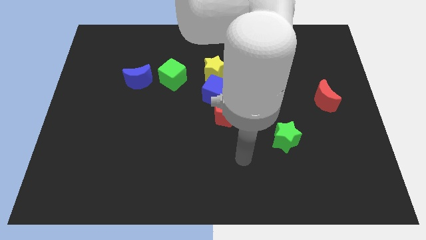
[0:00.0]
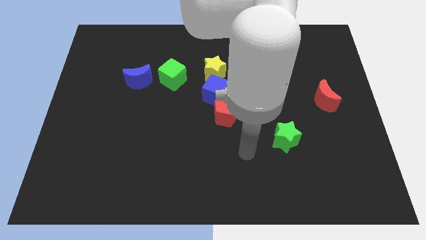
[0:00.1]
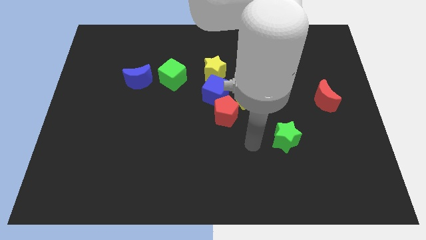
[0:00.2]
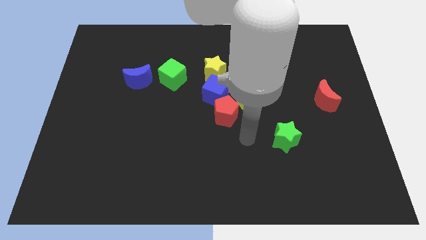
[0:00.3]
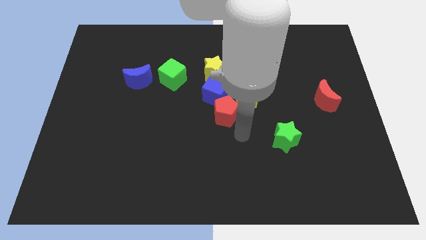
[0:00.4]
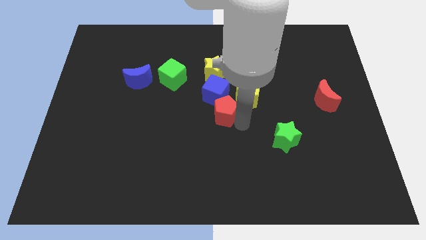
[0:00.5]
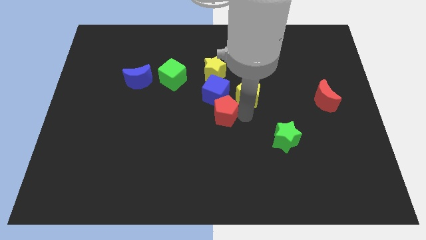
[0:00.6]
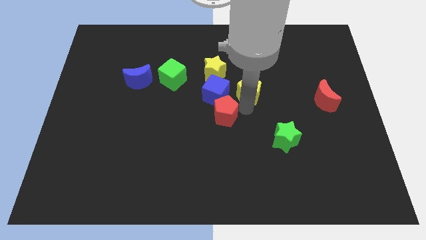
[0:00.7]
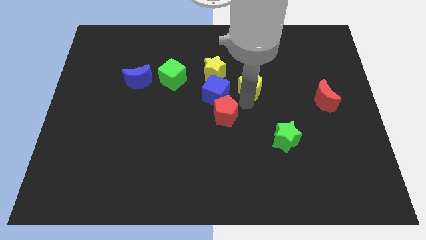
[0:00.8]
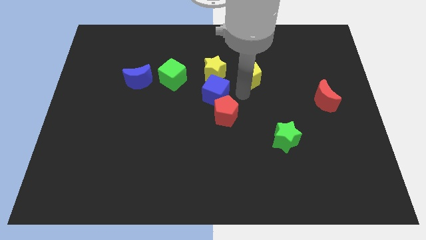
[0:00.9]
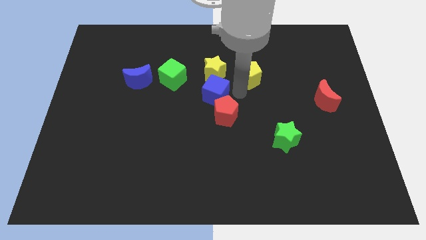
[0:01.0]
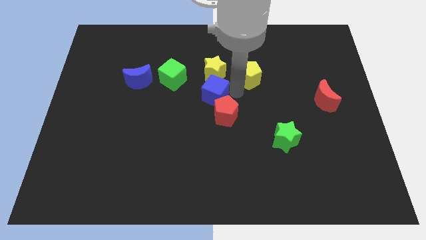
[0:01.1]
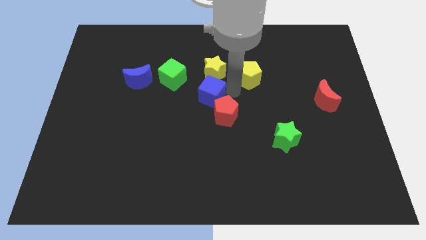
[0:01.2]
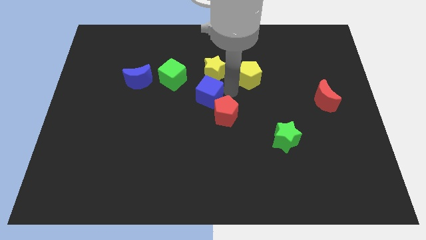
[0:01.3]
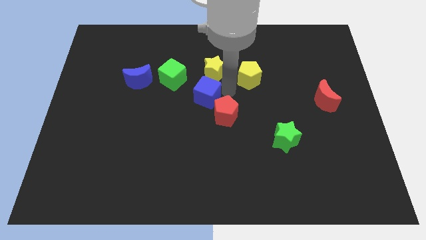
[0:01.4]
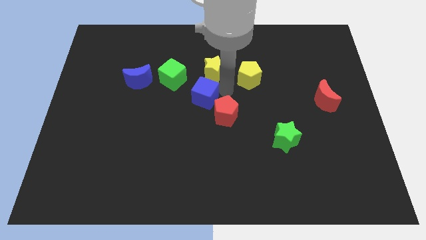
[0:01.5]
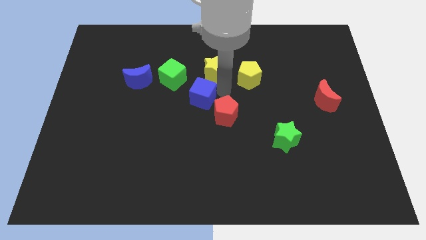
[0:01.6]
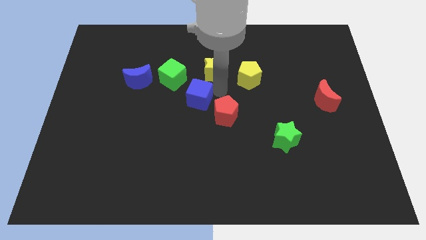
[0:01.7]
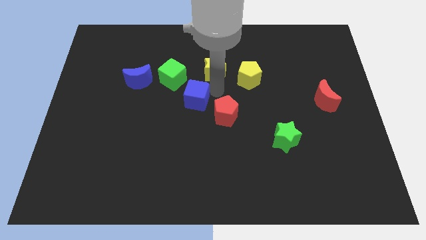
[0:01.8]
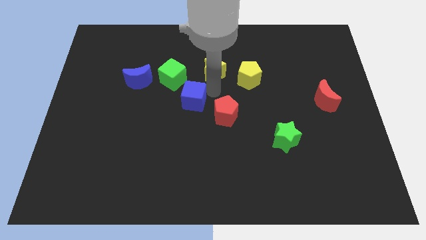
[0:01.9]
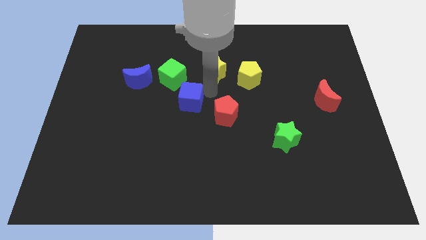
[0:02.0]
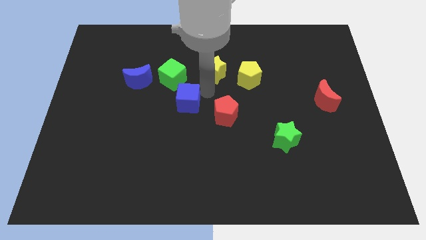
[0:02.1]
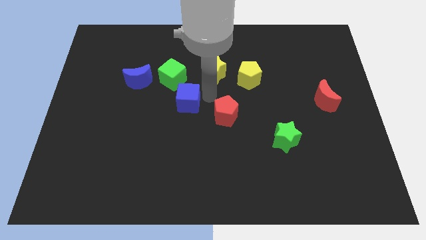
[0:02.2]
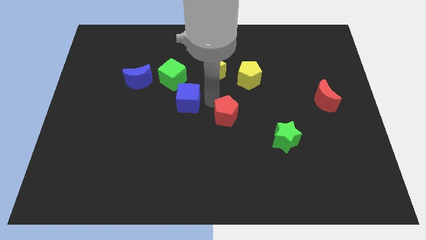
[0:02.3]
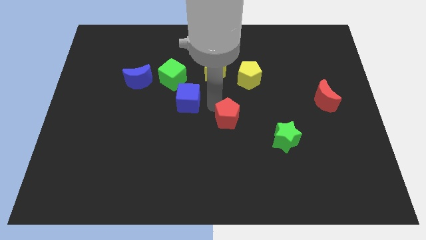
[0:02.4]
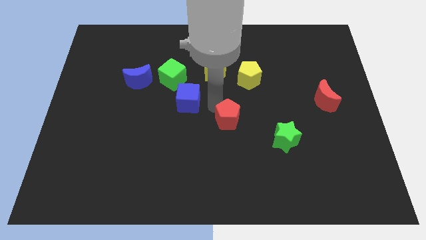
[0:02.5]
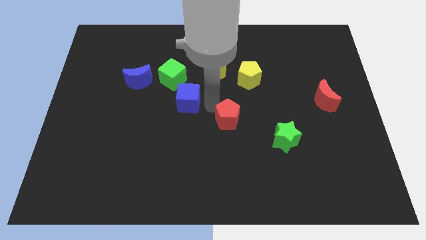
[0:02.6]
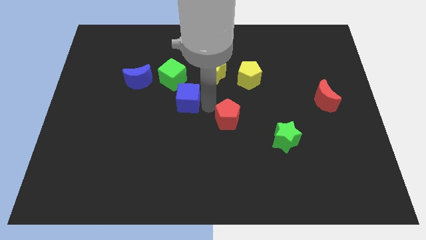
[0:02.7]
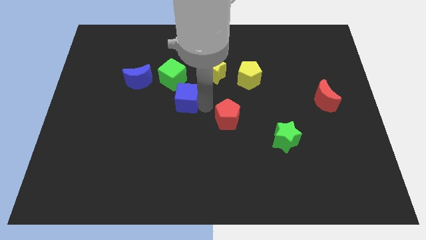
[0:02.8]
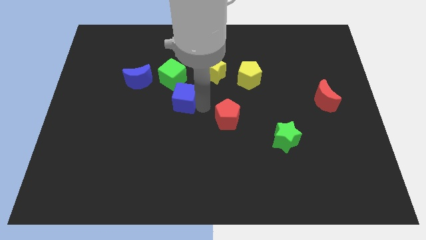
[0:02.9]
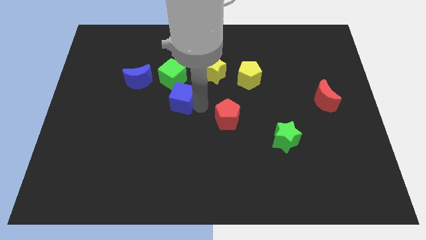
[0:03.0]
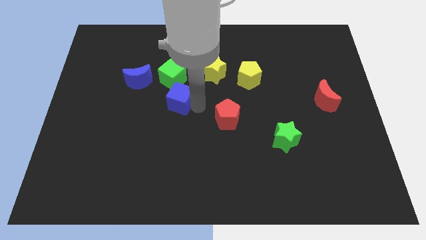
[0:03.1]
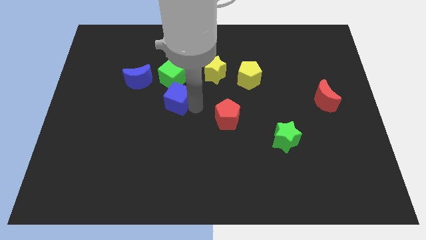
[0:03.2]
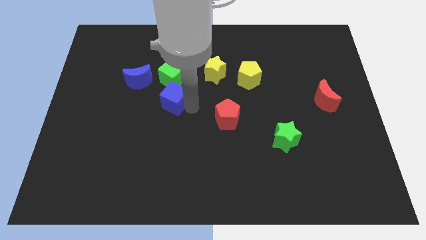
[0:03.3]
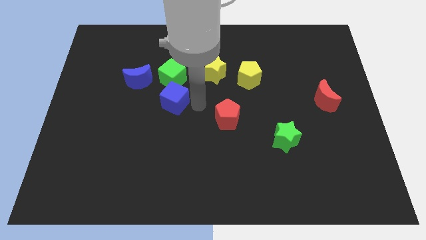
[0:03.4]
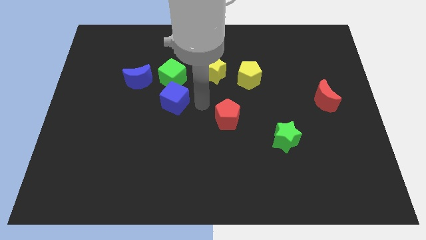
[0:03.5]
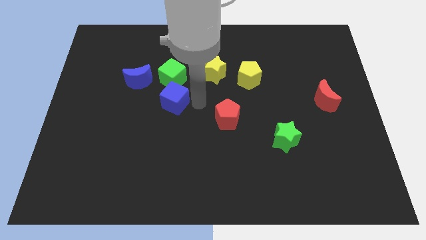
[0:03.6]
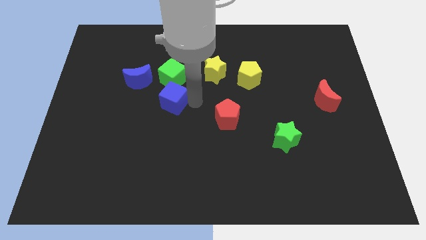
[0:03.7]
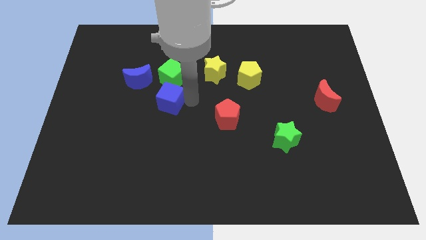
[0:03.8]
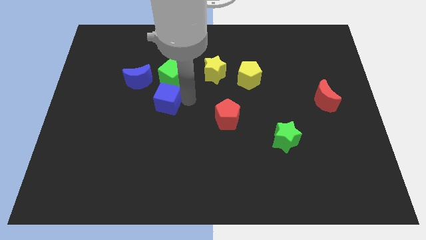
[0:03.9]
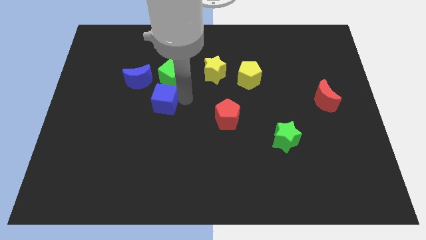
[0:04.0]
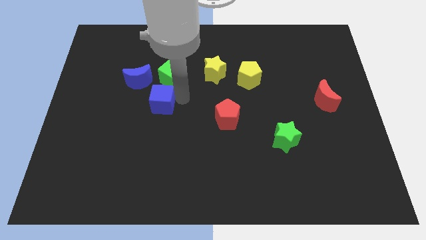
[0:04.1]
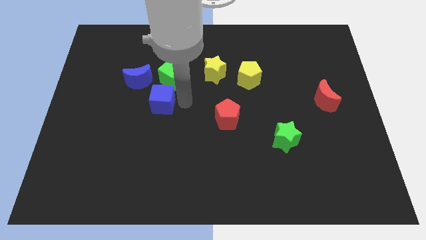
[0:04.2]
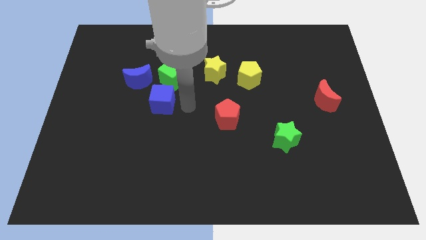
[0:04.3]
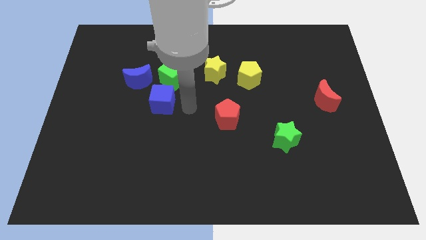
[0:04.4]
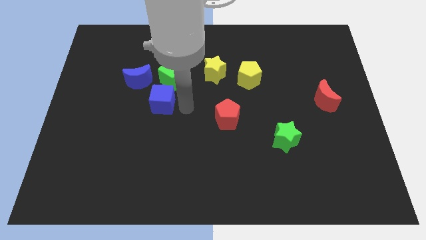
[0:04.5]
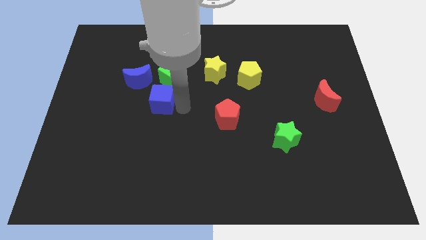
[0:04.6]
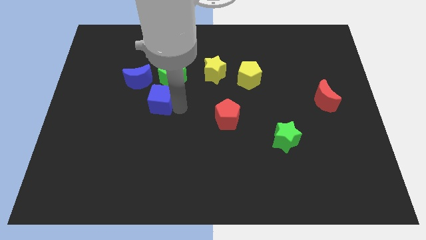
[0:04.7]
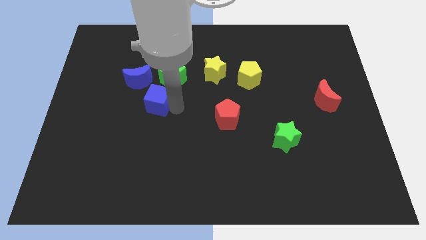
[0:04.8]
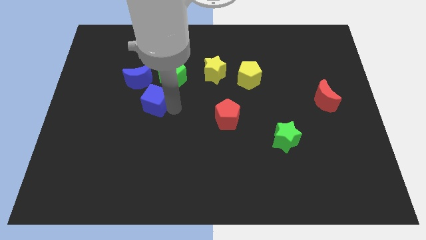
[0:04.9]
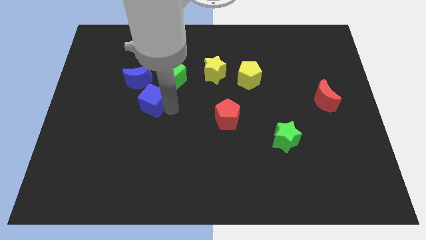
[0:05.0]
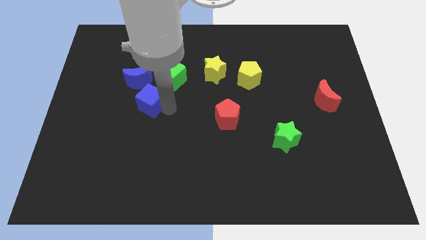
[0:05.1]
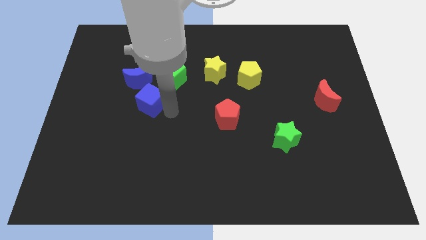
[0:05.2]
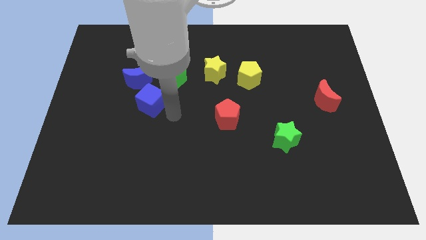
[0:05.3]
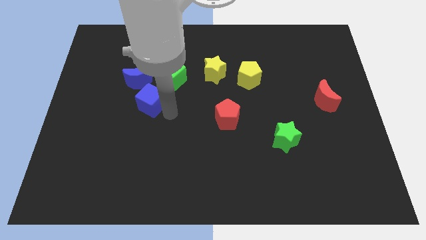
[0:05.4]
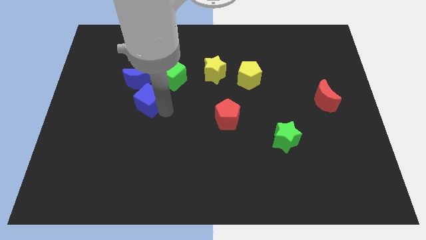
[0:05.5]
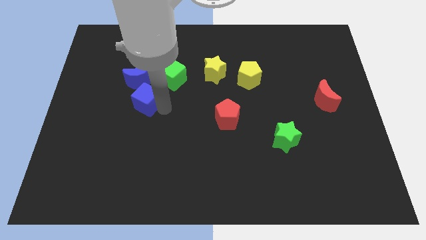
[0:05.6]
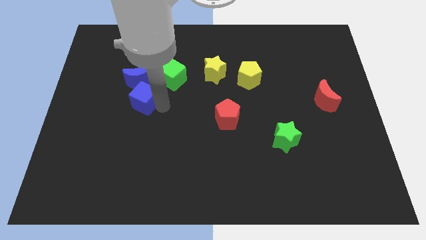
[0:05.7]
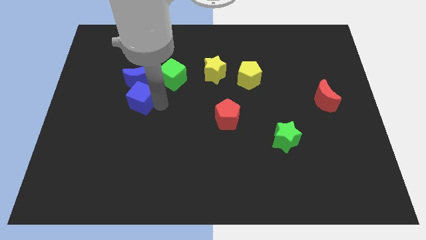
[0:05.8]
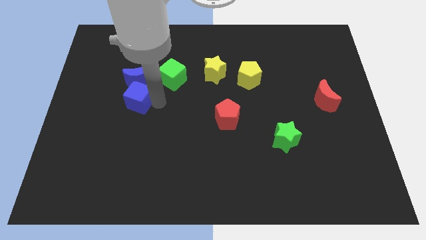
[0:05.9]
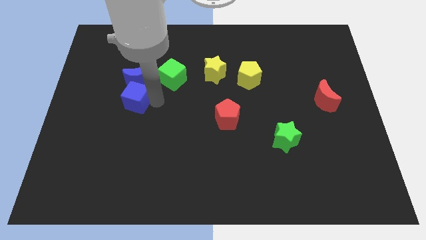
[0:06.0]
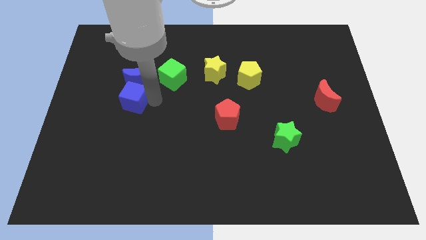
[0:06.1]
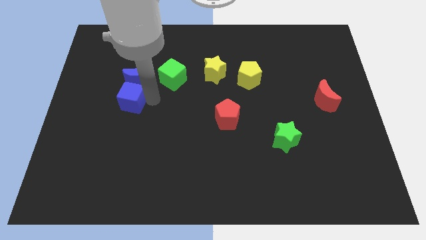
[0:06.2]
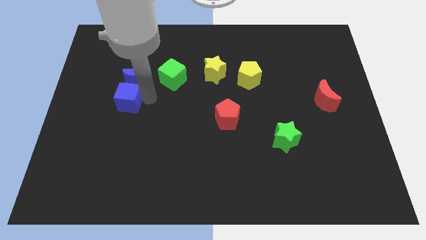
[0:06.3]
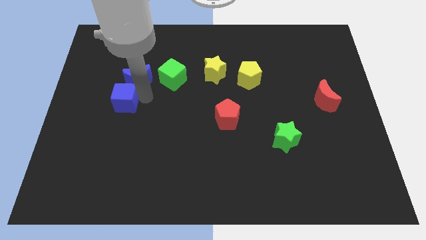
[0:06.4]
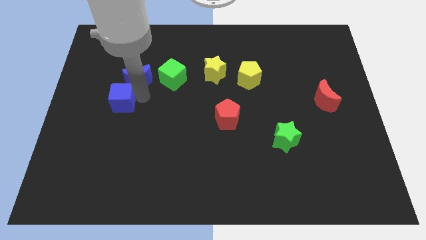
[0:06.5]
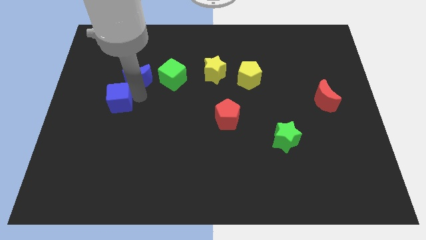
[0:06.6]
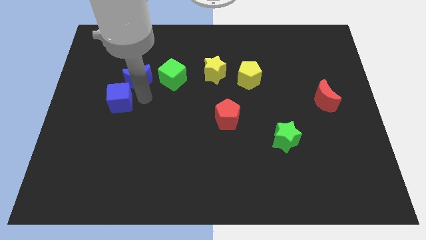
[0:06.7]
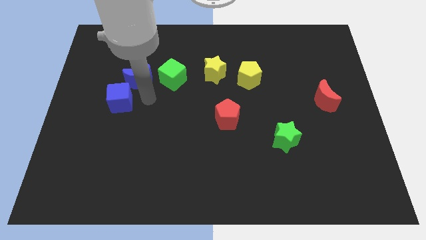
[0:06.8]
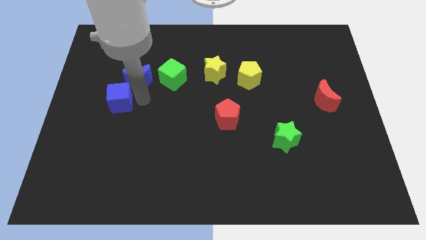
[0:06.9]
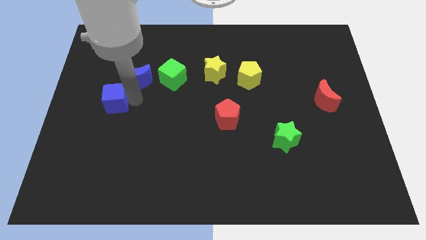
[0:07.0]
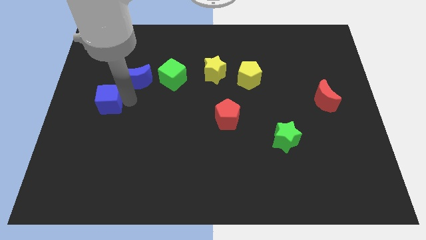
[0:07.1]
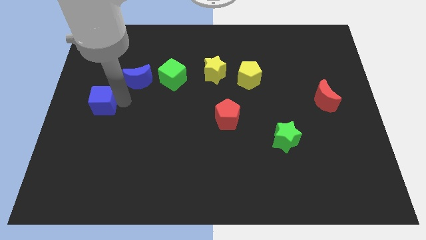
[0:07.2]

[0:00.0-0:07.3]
move the blue cube to the center left
